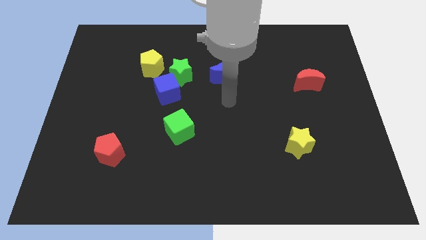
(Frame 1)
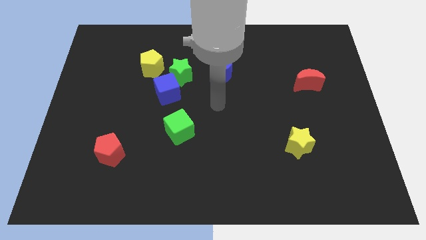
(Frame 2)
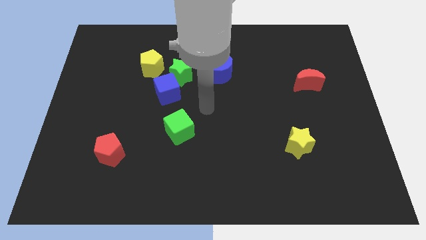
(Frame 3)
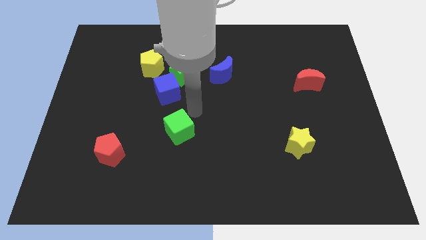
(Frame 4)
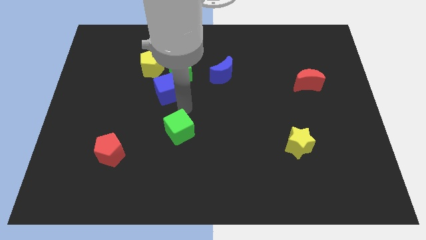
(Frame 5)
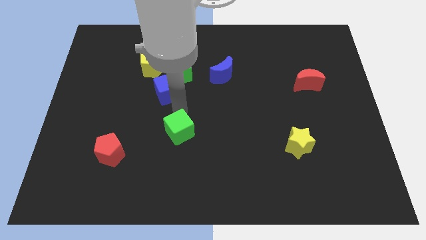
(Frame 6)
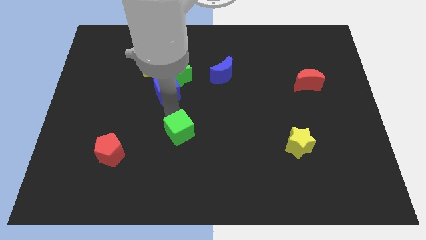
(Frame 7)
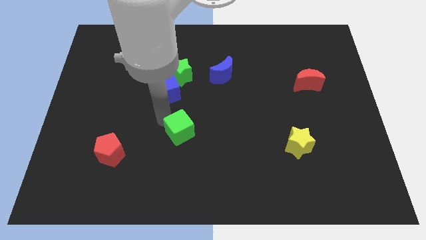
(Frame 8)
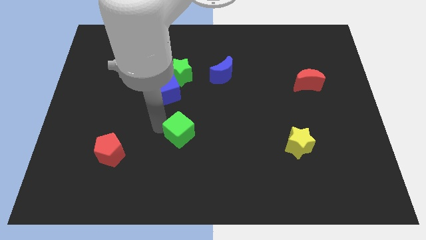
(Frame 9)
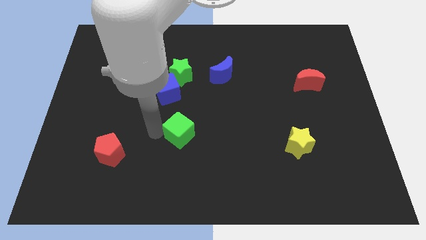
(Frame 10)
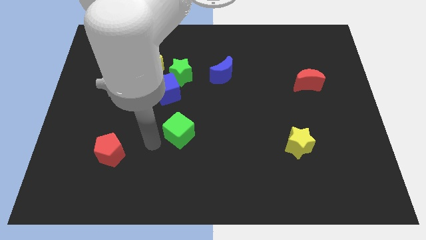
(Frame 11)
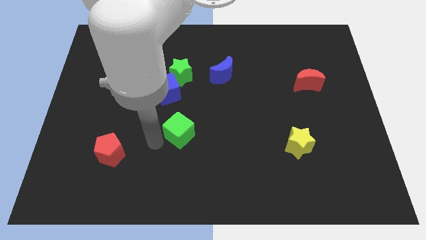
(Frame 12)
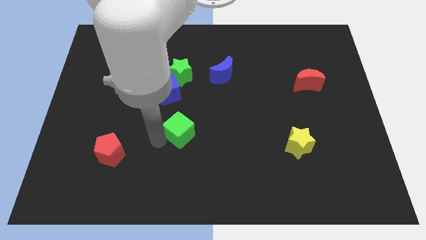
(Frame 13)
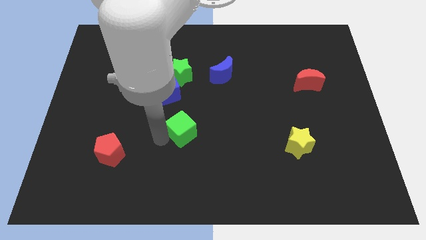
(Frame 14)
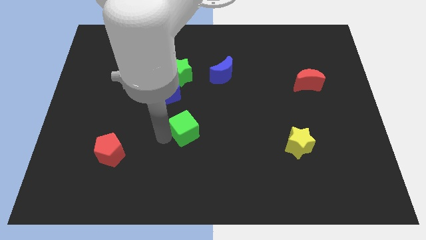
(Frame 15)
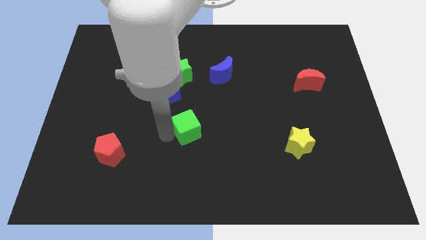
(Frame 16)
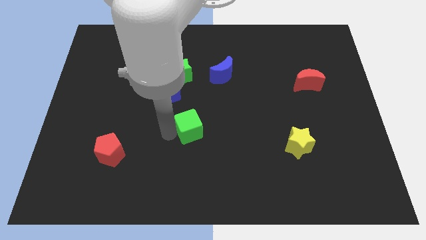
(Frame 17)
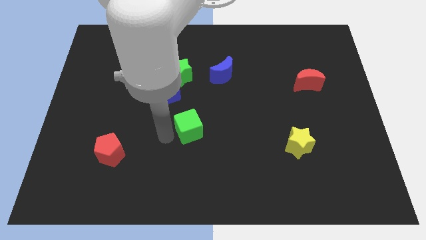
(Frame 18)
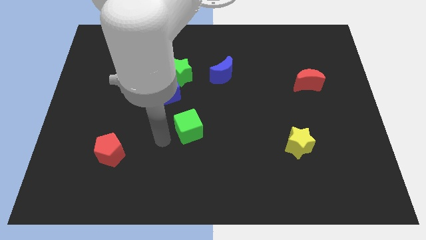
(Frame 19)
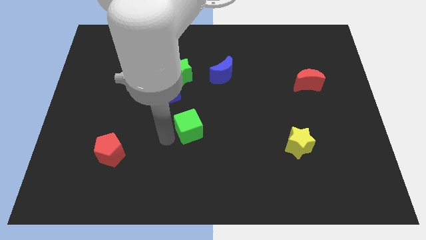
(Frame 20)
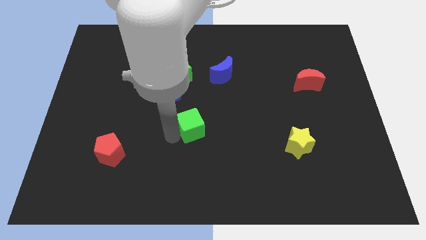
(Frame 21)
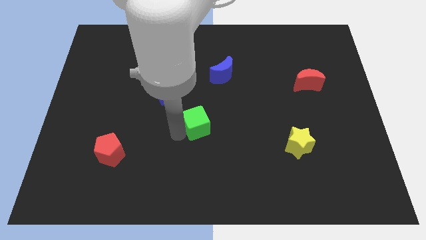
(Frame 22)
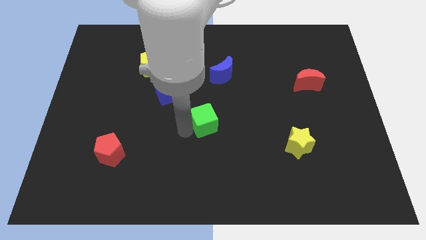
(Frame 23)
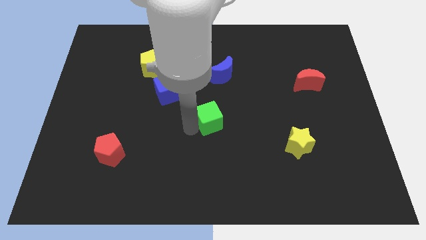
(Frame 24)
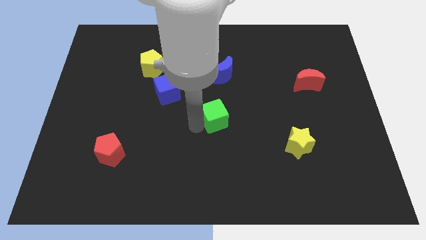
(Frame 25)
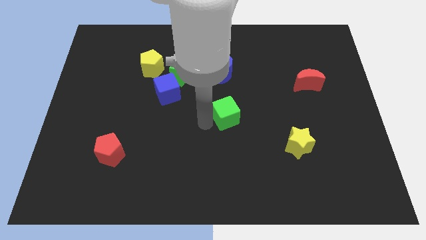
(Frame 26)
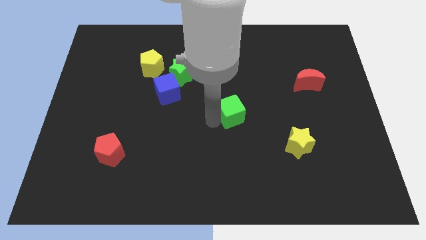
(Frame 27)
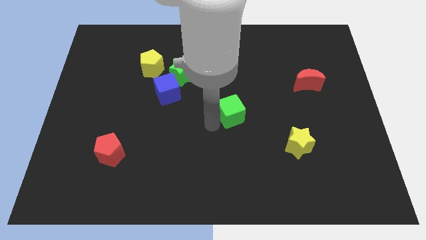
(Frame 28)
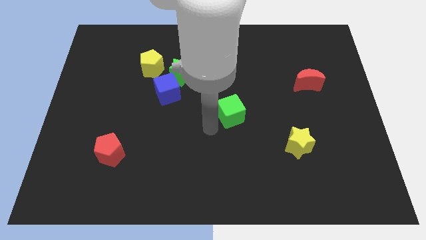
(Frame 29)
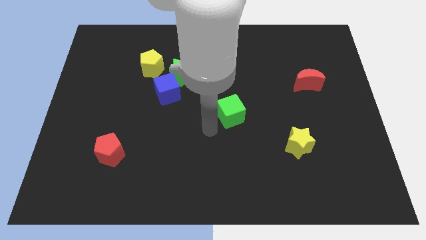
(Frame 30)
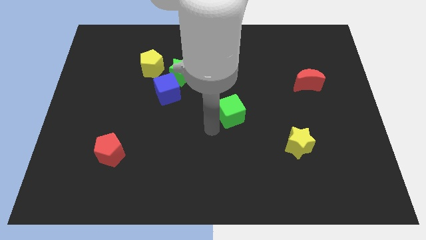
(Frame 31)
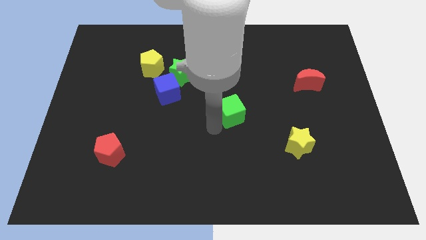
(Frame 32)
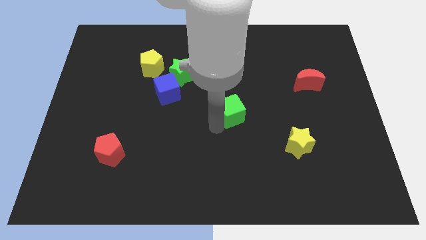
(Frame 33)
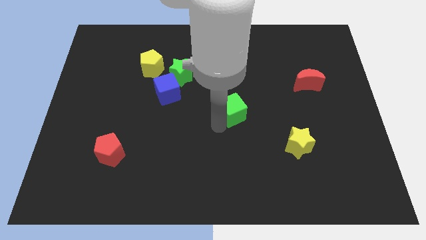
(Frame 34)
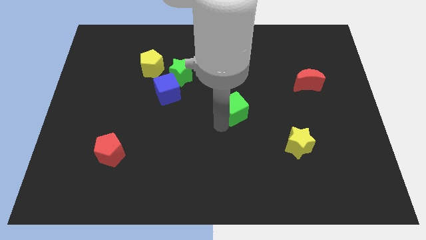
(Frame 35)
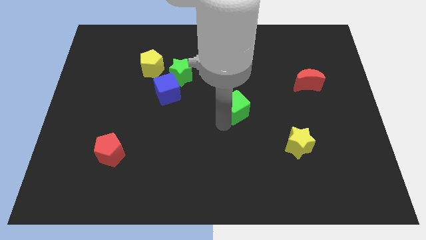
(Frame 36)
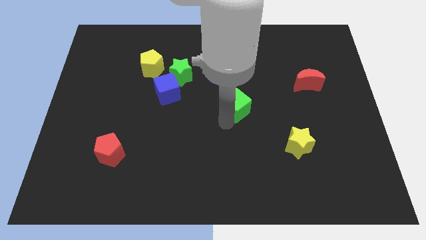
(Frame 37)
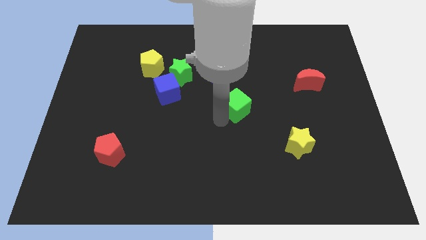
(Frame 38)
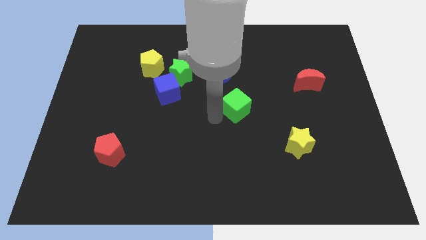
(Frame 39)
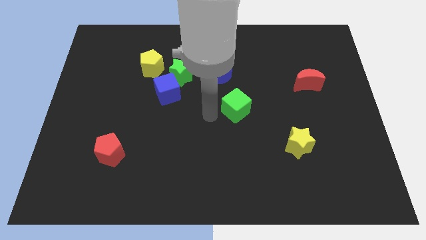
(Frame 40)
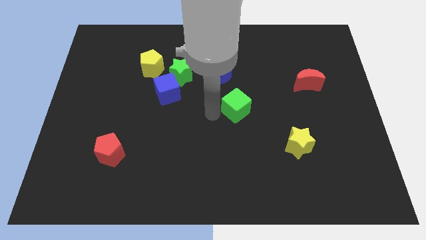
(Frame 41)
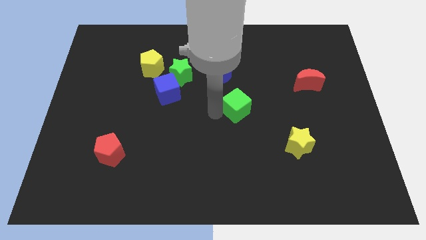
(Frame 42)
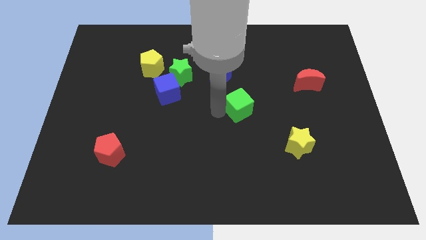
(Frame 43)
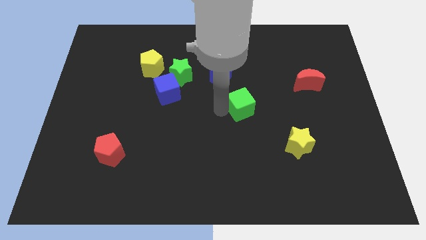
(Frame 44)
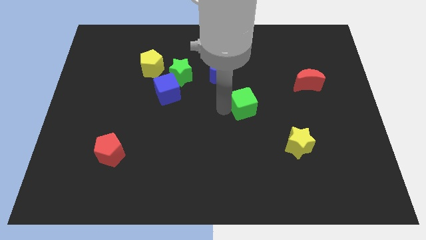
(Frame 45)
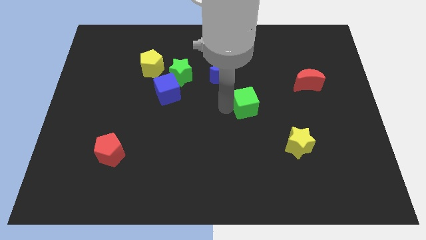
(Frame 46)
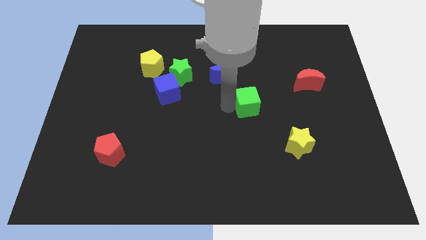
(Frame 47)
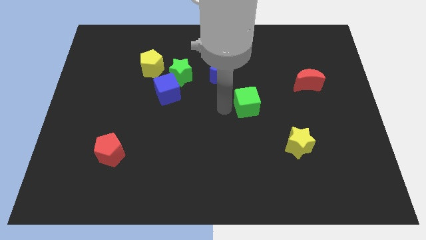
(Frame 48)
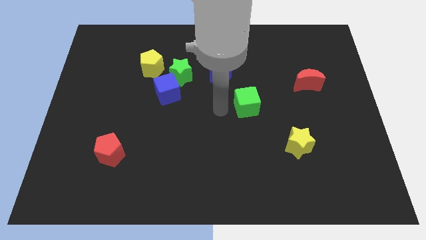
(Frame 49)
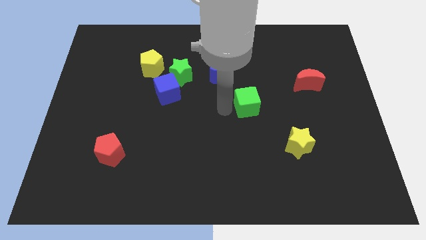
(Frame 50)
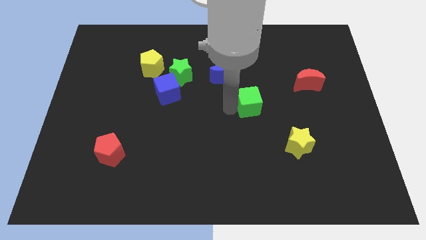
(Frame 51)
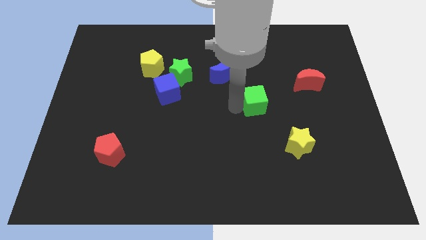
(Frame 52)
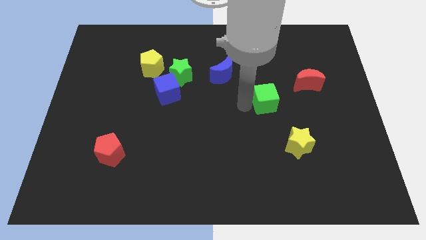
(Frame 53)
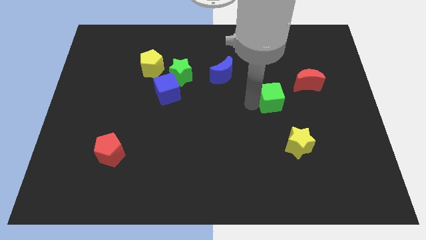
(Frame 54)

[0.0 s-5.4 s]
push the green cube diagonally down and to the left of the red moon

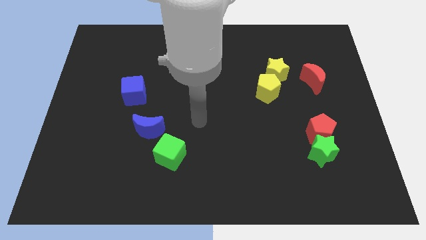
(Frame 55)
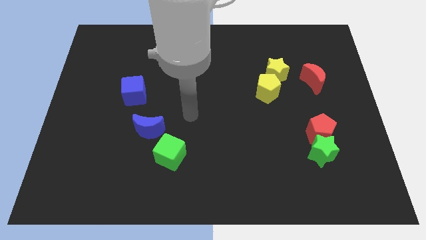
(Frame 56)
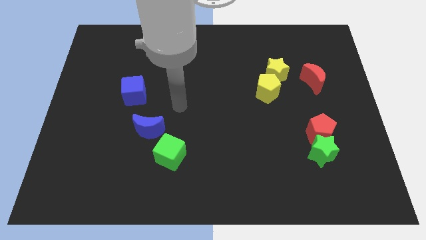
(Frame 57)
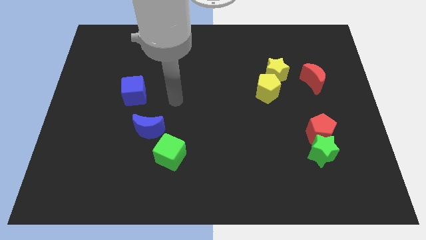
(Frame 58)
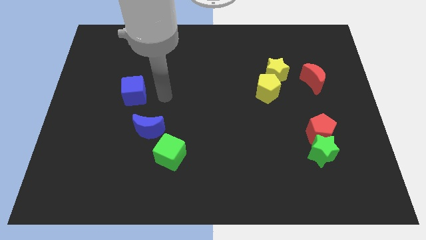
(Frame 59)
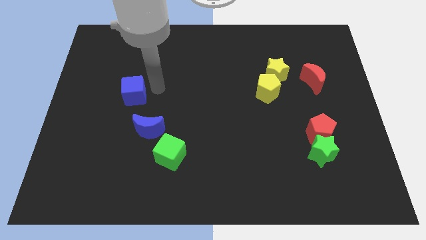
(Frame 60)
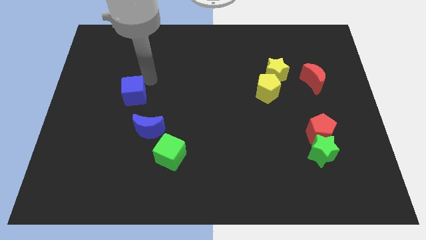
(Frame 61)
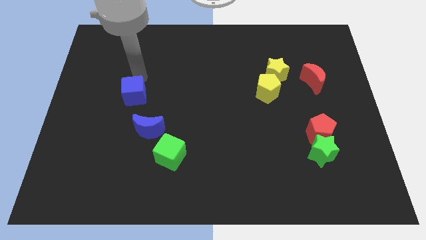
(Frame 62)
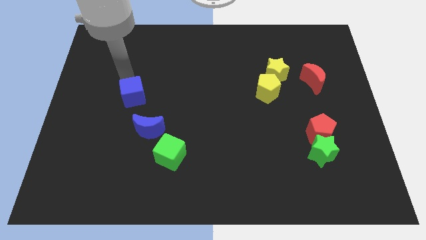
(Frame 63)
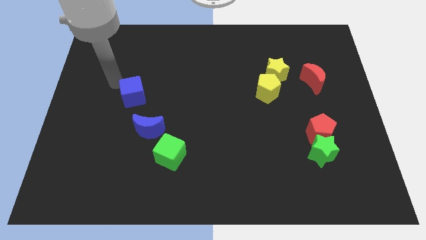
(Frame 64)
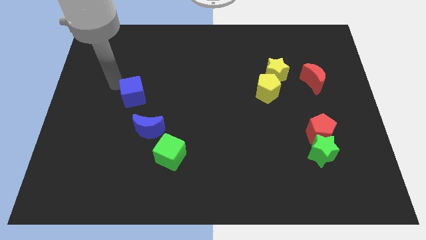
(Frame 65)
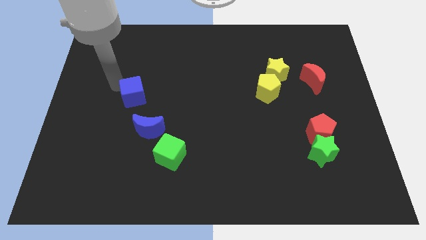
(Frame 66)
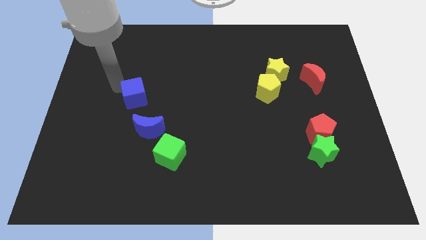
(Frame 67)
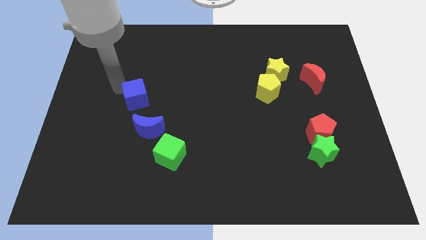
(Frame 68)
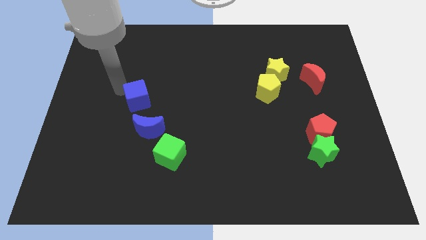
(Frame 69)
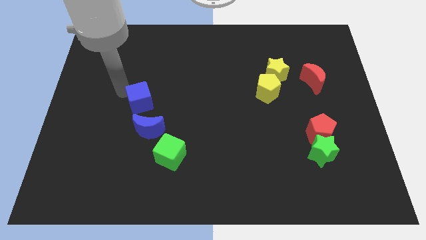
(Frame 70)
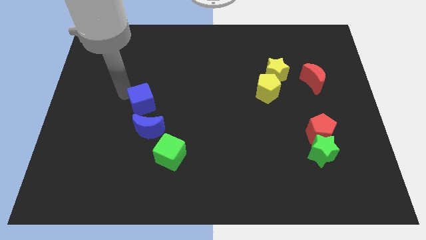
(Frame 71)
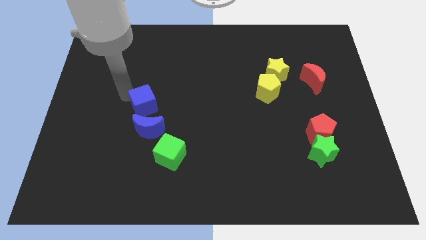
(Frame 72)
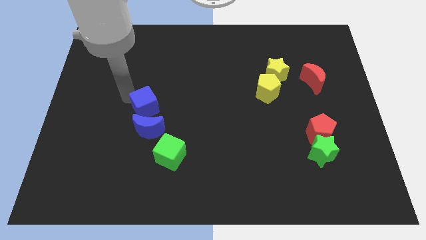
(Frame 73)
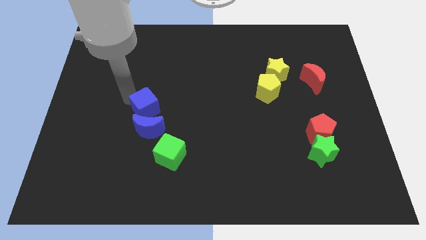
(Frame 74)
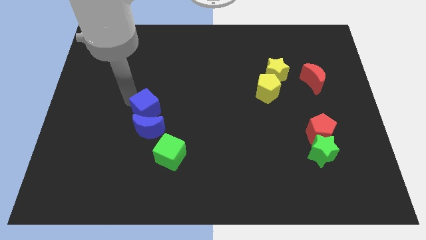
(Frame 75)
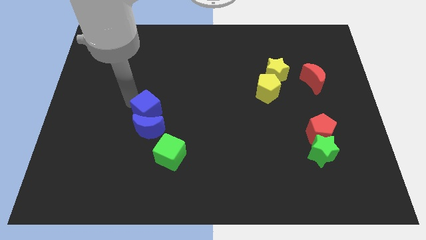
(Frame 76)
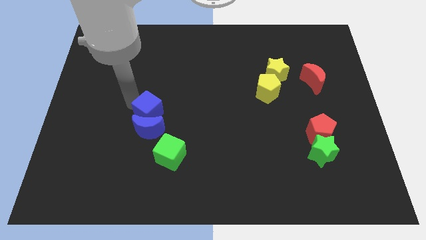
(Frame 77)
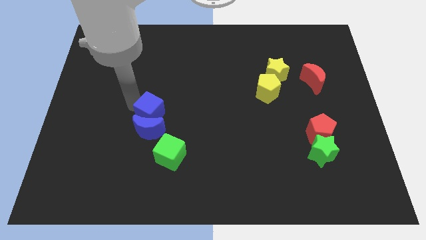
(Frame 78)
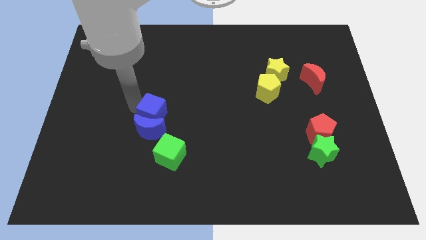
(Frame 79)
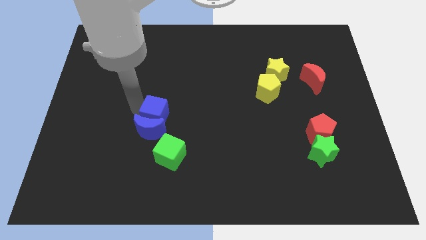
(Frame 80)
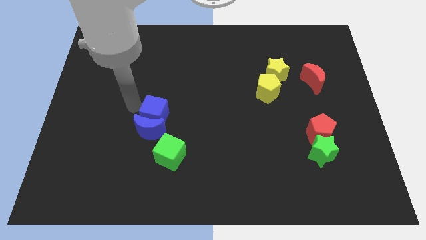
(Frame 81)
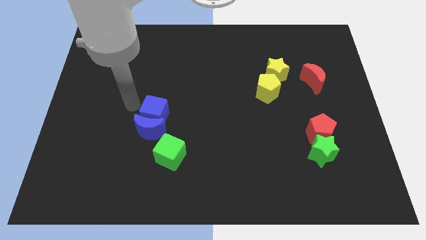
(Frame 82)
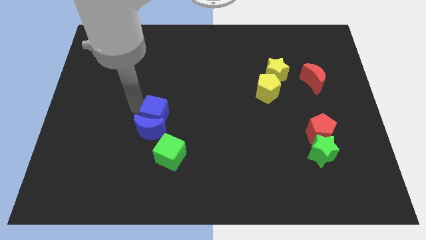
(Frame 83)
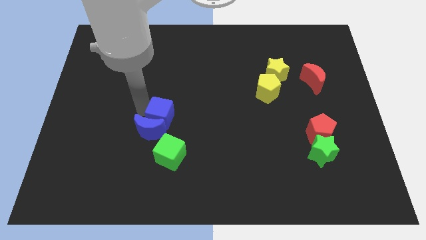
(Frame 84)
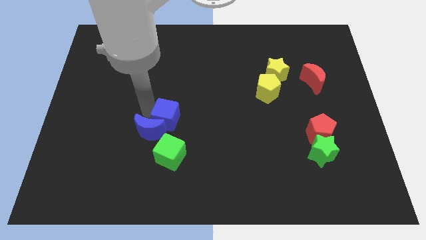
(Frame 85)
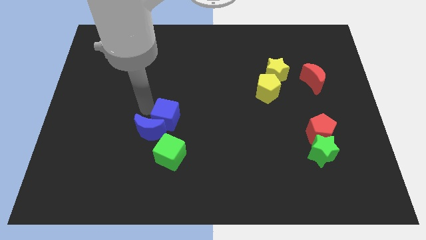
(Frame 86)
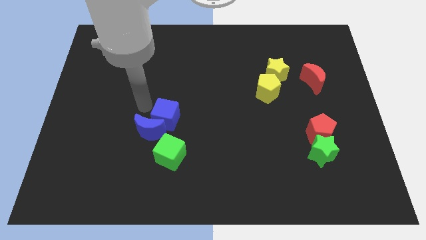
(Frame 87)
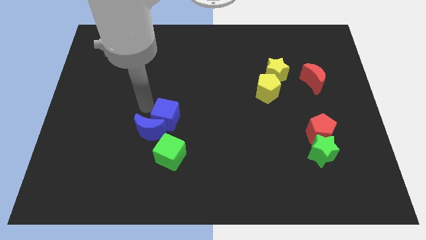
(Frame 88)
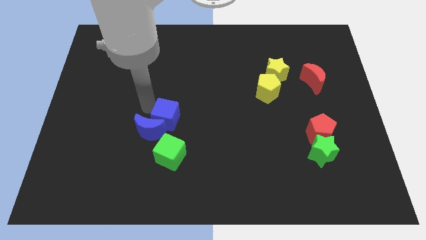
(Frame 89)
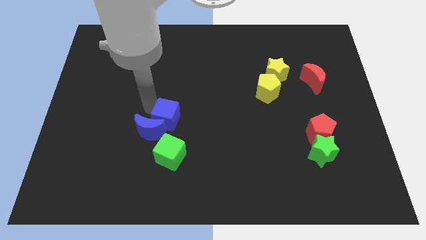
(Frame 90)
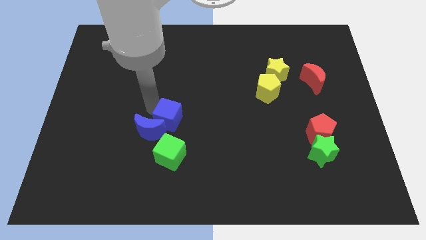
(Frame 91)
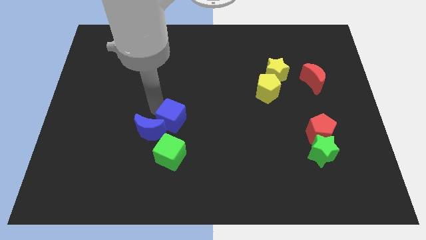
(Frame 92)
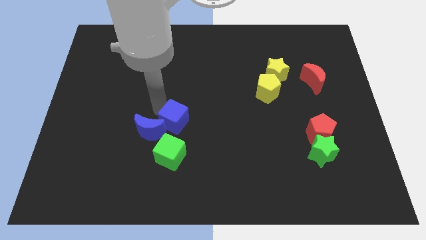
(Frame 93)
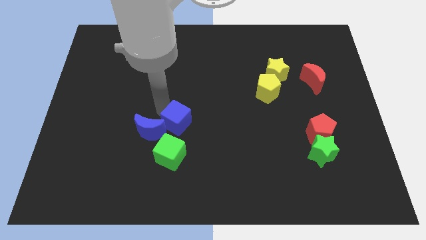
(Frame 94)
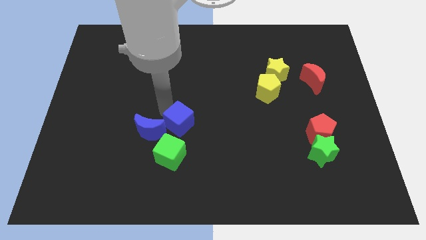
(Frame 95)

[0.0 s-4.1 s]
put the blue cube diagonally up and to the right of the green cube
